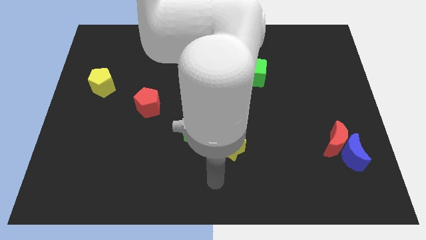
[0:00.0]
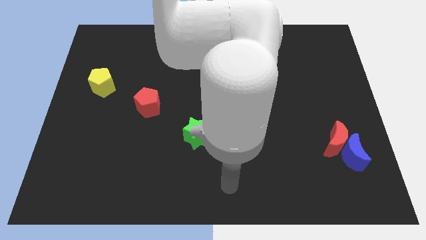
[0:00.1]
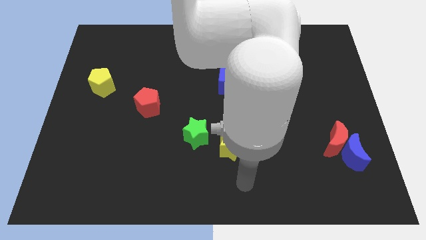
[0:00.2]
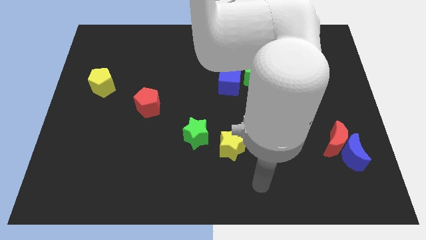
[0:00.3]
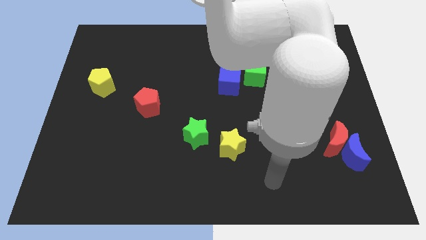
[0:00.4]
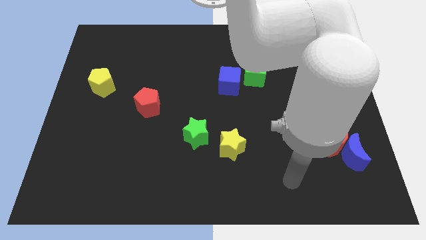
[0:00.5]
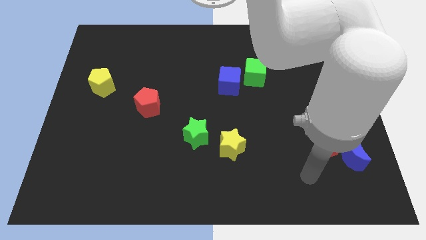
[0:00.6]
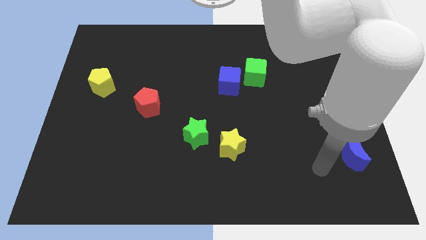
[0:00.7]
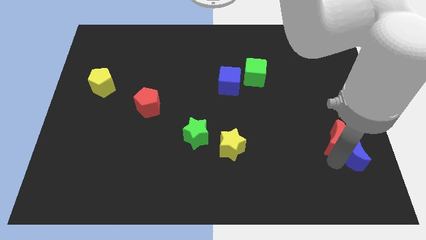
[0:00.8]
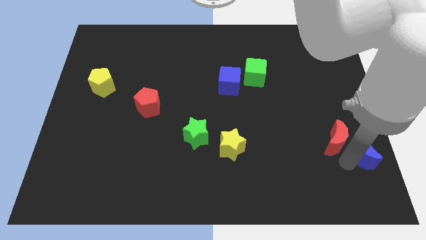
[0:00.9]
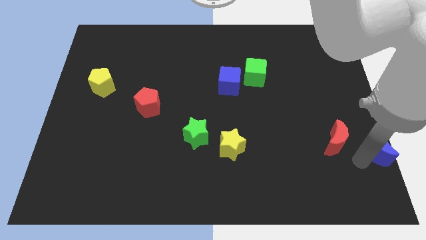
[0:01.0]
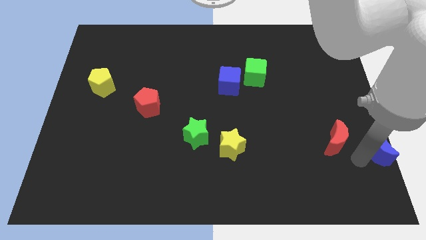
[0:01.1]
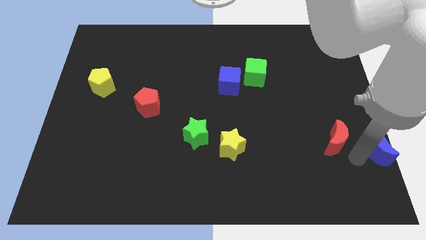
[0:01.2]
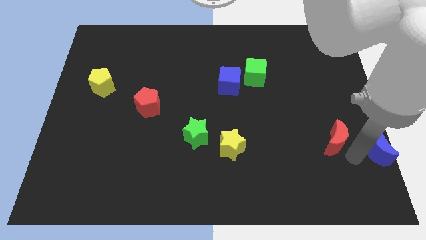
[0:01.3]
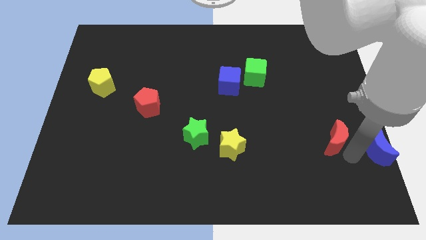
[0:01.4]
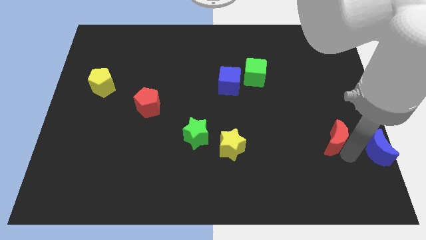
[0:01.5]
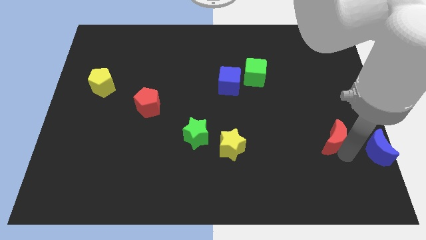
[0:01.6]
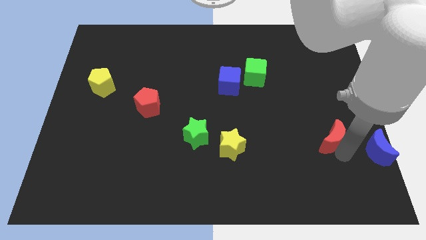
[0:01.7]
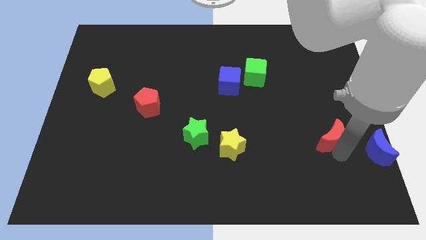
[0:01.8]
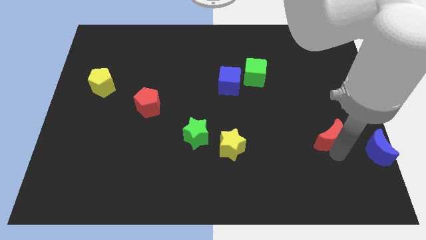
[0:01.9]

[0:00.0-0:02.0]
separate the red moon from the blue moon

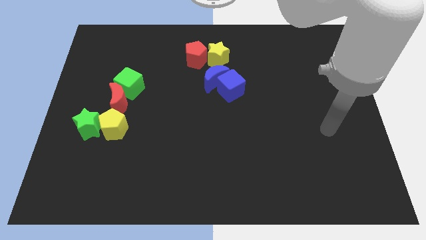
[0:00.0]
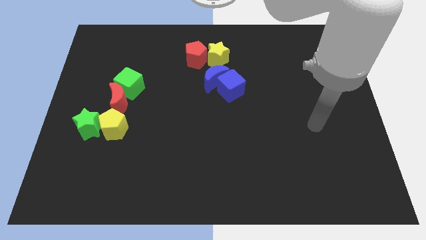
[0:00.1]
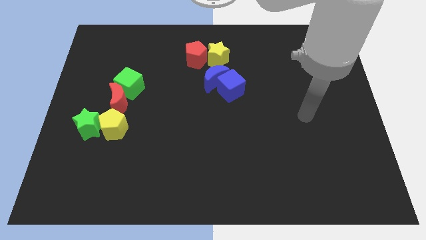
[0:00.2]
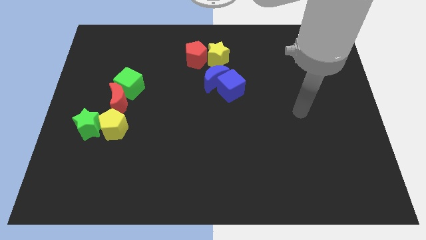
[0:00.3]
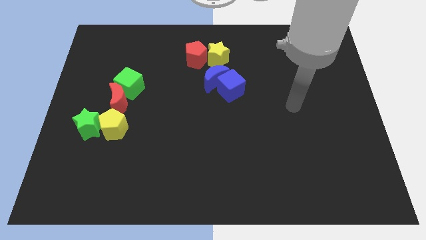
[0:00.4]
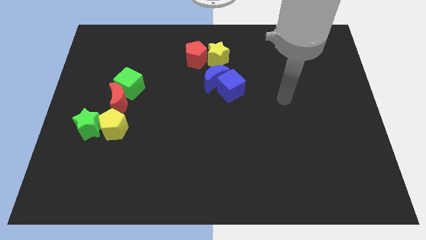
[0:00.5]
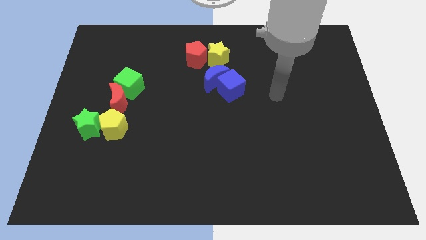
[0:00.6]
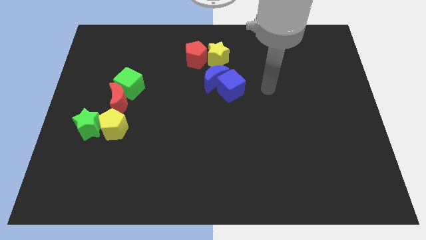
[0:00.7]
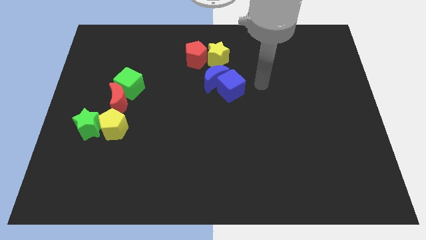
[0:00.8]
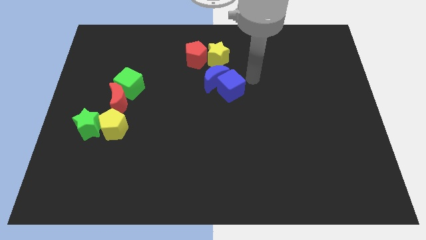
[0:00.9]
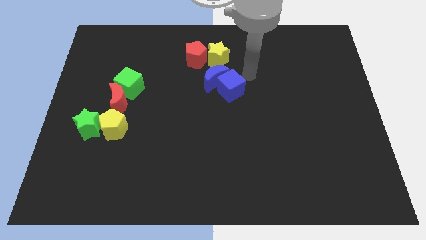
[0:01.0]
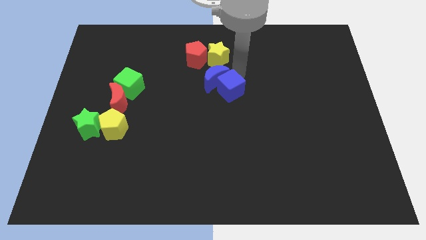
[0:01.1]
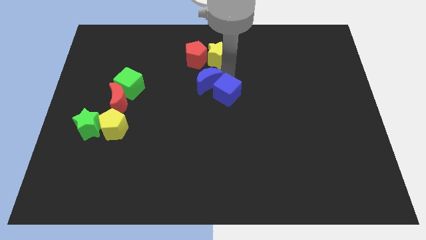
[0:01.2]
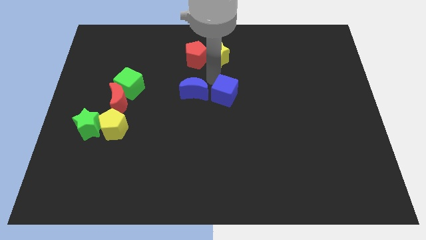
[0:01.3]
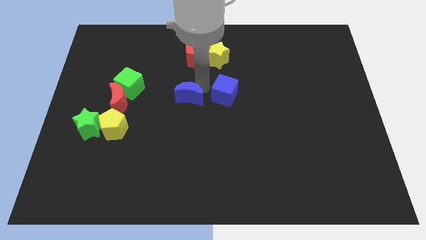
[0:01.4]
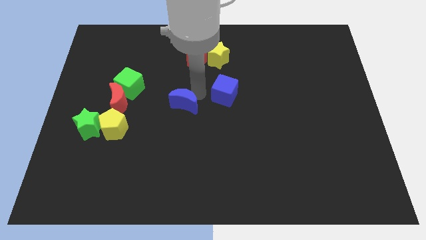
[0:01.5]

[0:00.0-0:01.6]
pull the blue cube apart from the blue moon

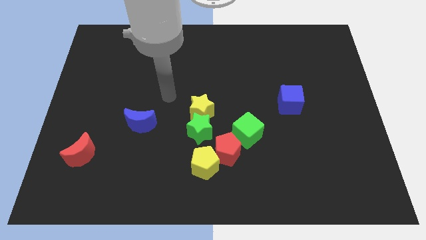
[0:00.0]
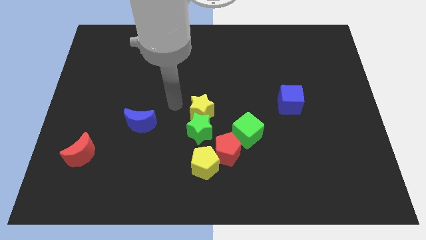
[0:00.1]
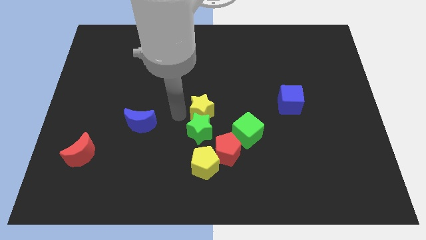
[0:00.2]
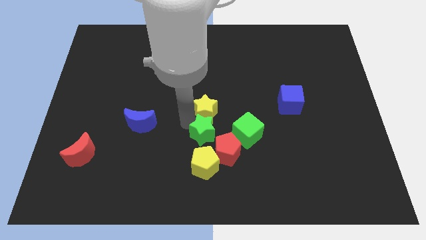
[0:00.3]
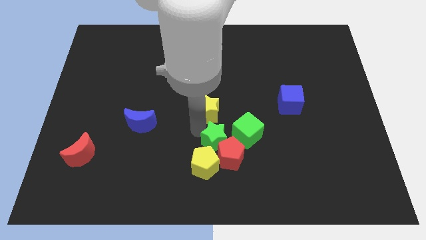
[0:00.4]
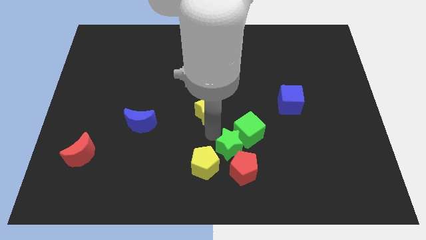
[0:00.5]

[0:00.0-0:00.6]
pull the yellow star apart from the green star

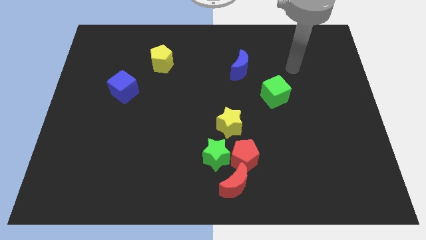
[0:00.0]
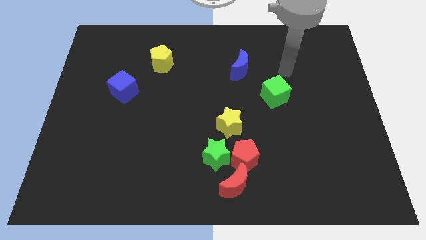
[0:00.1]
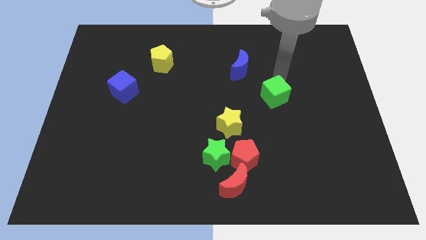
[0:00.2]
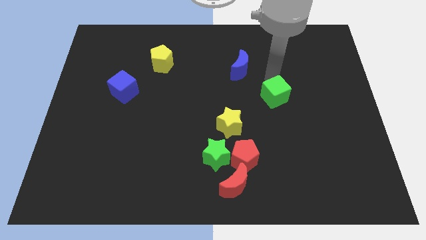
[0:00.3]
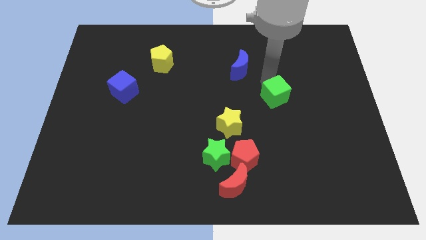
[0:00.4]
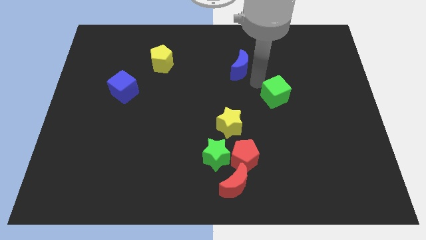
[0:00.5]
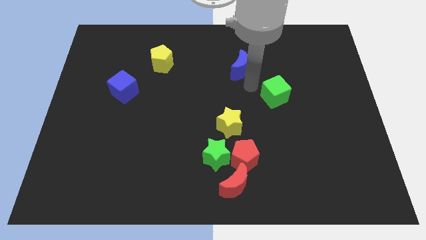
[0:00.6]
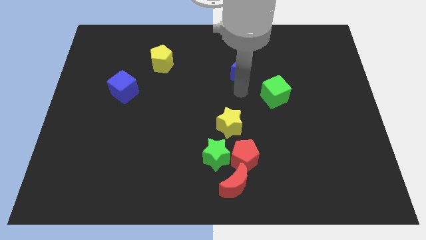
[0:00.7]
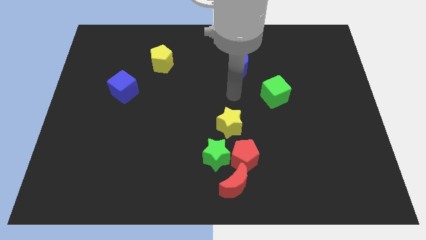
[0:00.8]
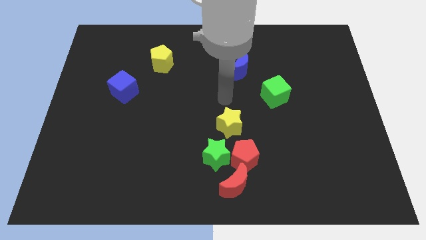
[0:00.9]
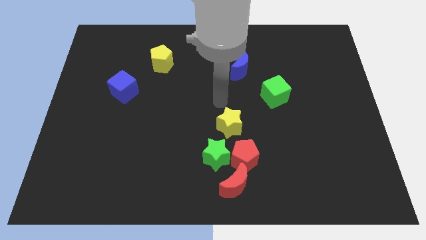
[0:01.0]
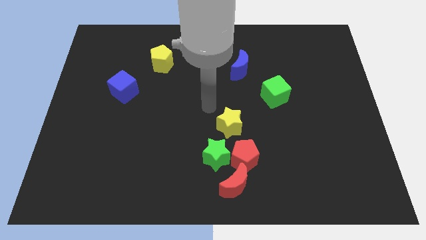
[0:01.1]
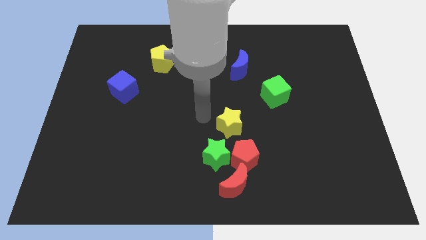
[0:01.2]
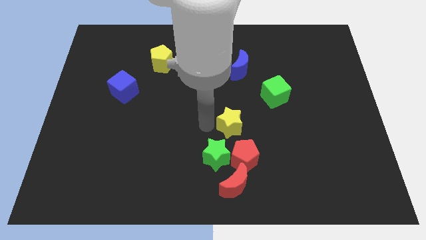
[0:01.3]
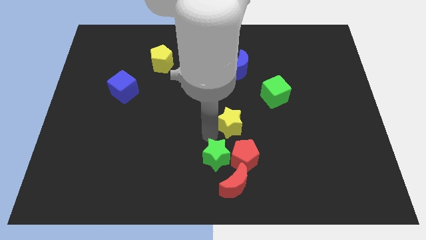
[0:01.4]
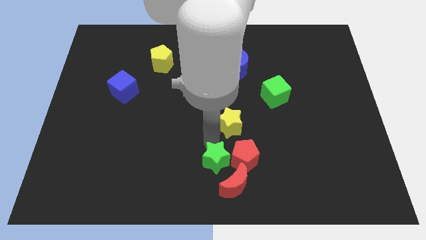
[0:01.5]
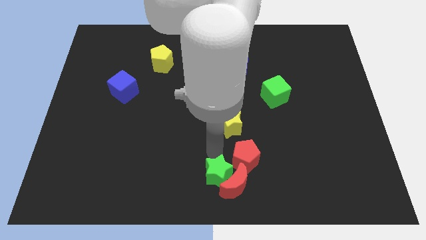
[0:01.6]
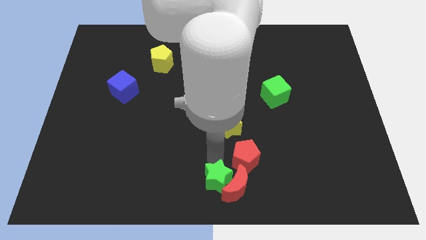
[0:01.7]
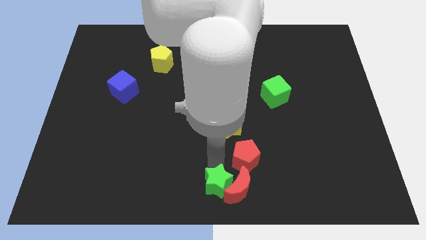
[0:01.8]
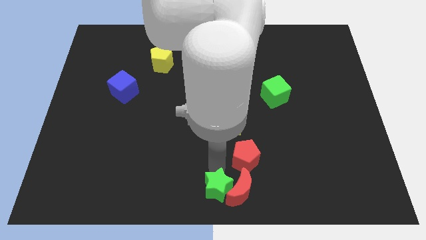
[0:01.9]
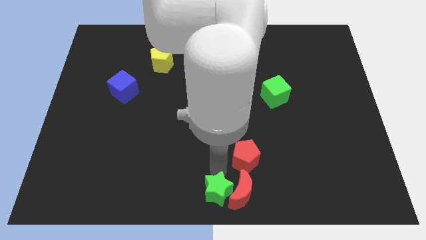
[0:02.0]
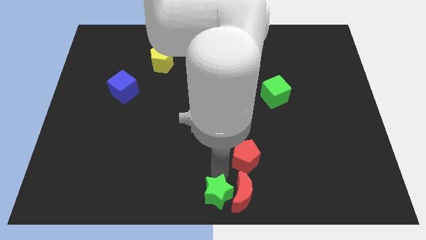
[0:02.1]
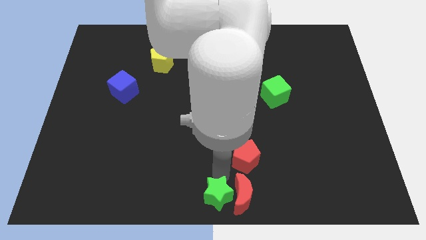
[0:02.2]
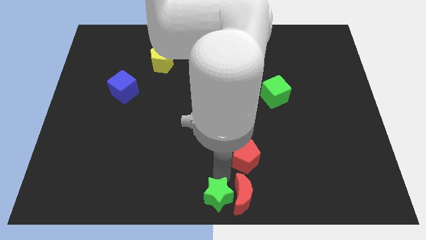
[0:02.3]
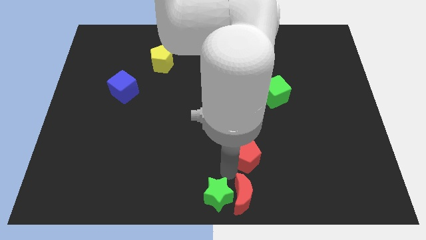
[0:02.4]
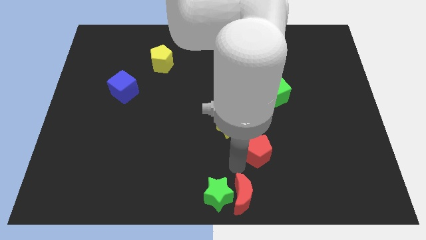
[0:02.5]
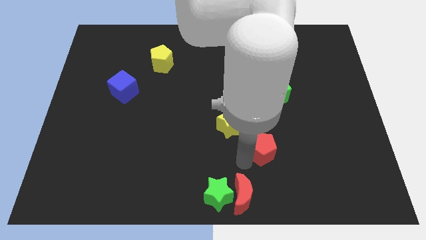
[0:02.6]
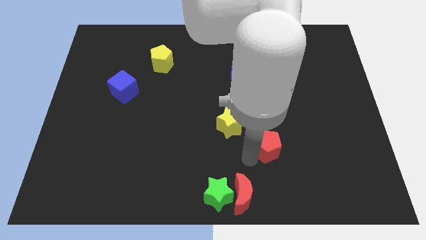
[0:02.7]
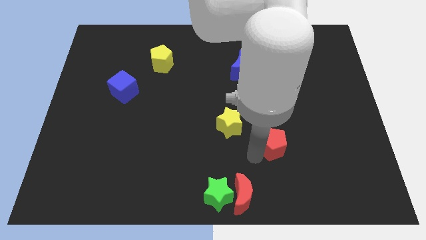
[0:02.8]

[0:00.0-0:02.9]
pull the red pentagon apart from the green star, red moon, and yellow star

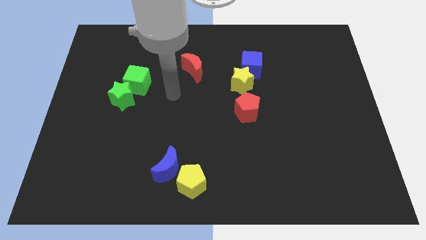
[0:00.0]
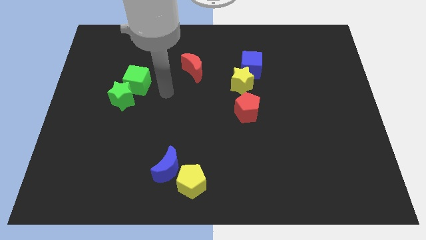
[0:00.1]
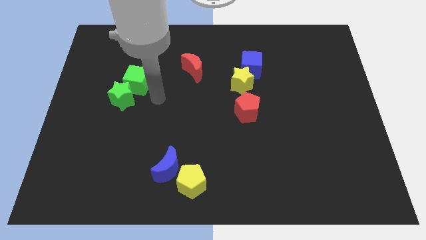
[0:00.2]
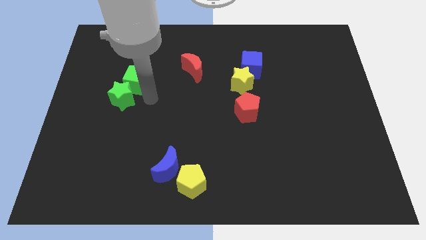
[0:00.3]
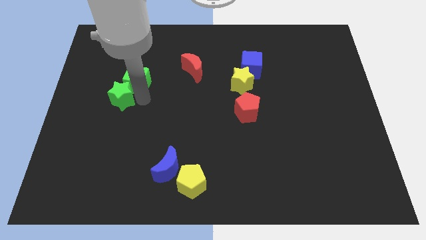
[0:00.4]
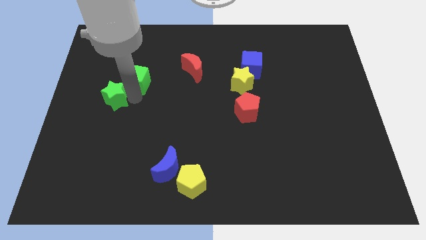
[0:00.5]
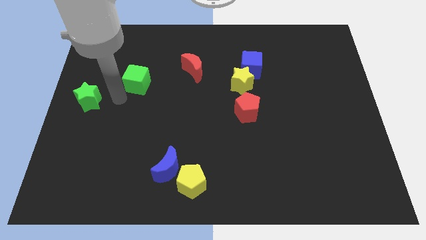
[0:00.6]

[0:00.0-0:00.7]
pull the green cube apart from the green star

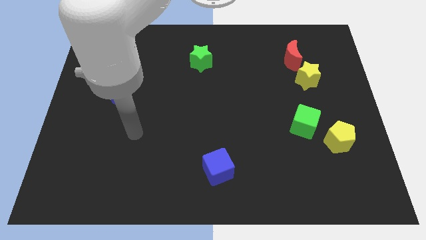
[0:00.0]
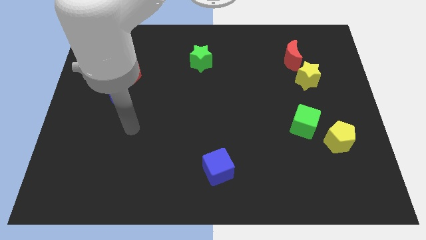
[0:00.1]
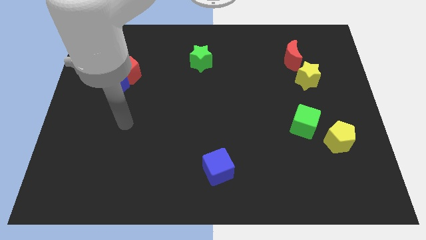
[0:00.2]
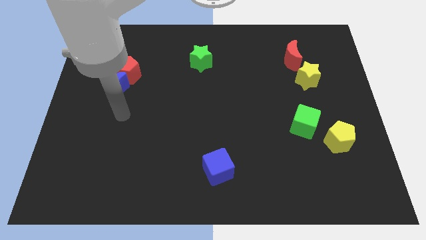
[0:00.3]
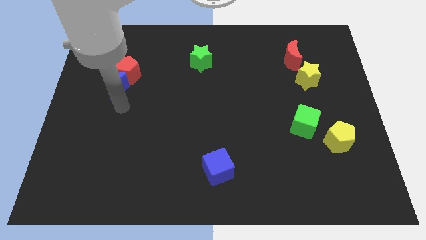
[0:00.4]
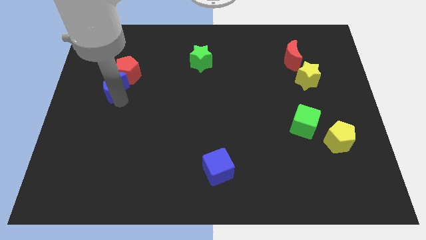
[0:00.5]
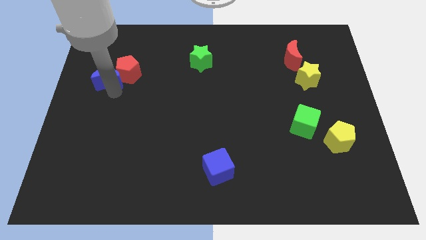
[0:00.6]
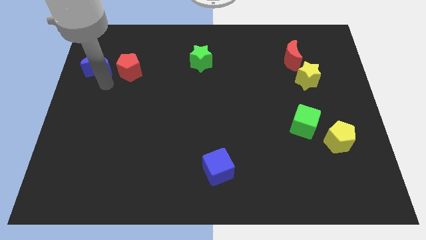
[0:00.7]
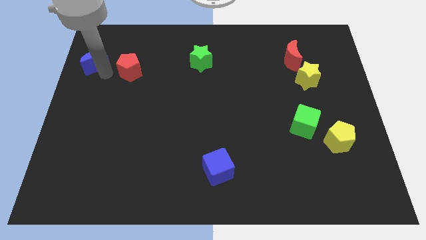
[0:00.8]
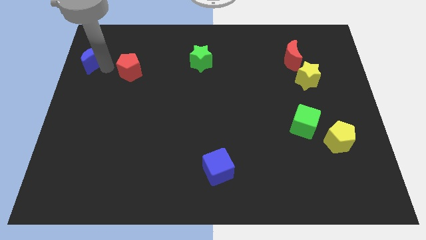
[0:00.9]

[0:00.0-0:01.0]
separate the red pentagon from the blue moon

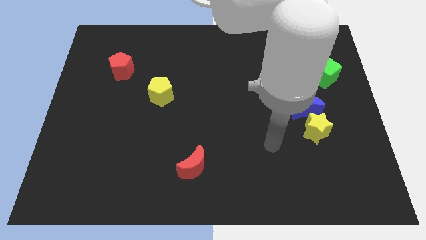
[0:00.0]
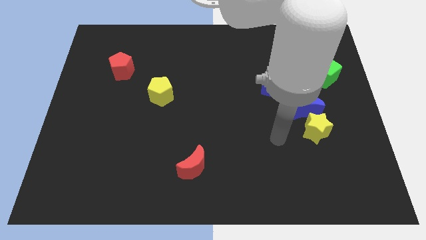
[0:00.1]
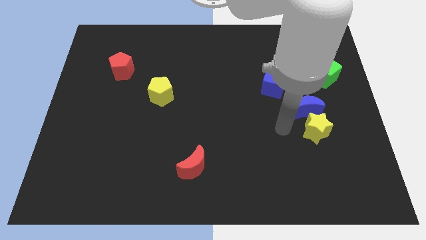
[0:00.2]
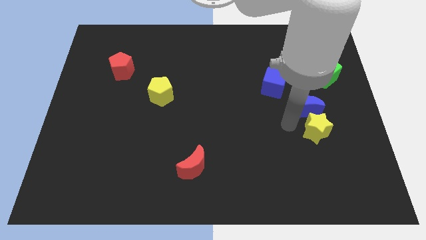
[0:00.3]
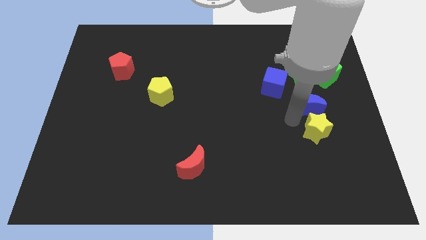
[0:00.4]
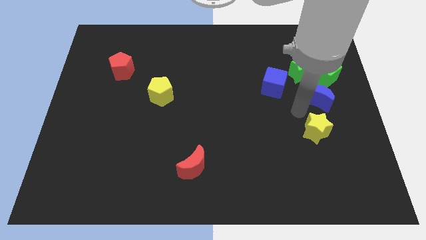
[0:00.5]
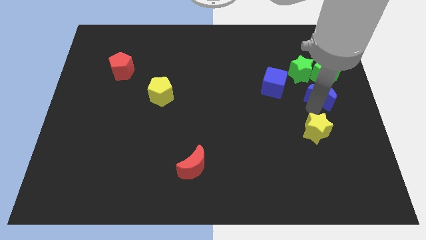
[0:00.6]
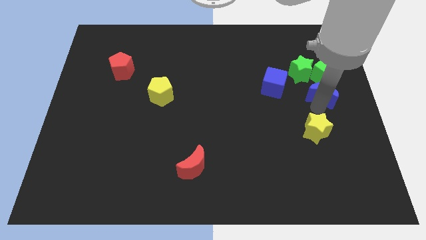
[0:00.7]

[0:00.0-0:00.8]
move the yellow star away from the blue moon
